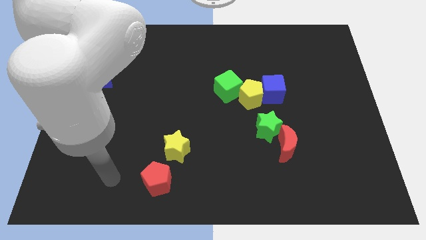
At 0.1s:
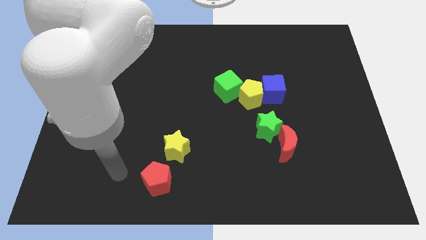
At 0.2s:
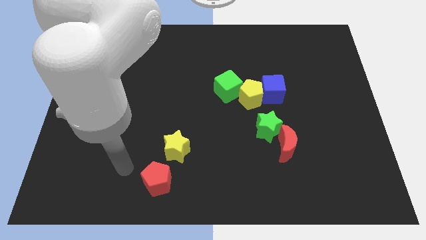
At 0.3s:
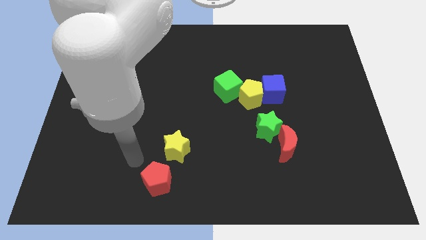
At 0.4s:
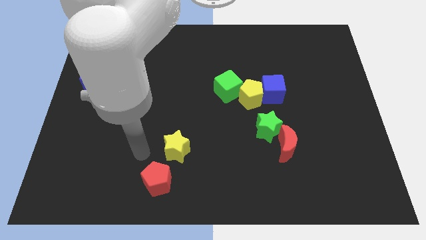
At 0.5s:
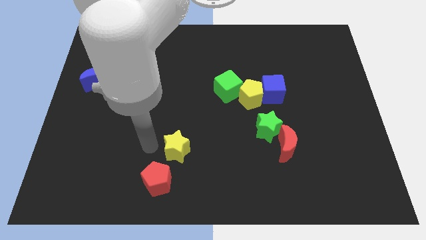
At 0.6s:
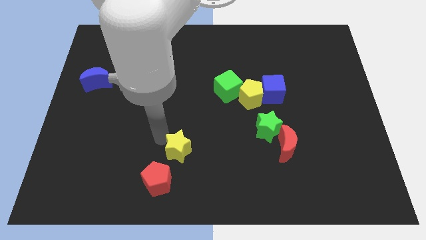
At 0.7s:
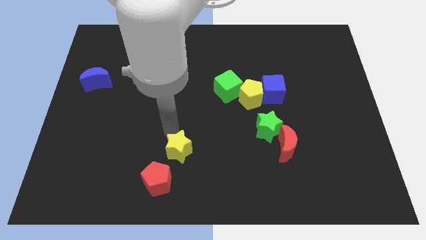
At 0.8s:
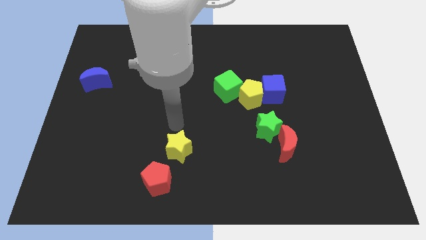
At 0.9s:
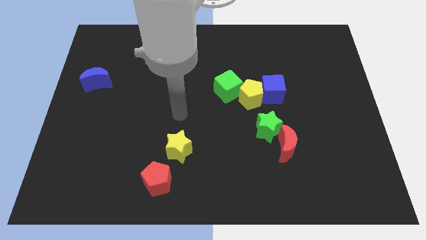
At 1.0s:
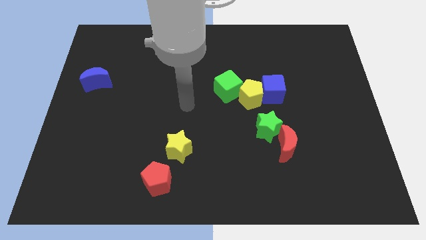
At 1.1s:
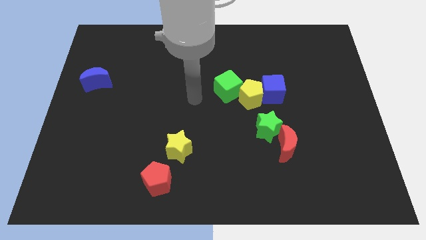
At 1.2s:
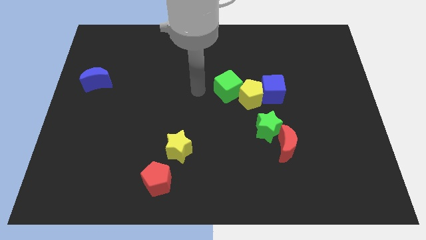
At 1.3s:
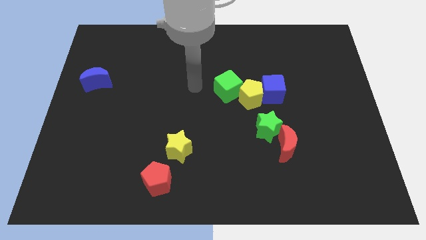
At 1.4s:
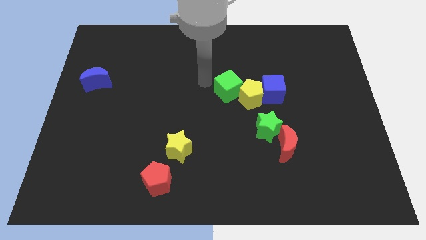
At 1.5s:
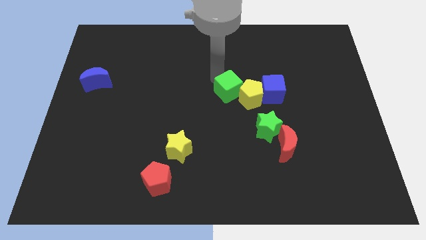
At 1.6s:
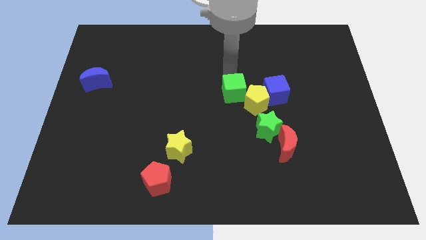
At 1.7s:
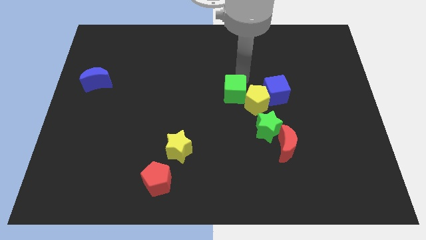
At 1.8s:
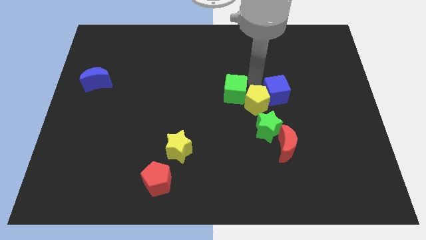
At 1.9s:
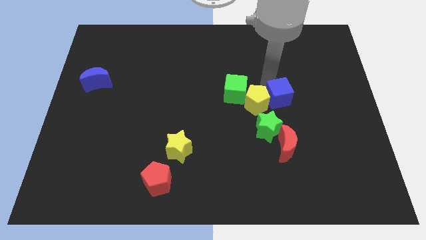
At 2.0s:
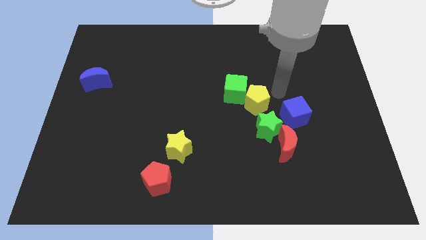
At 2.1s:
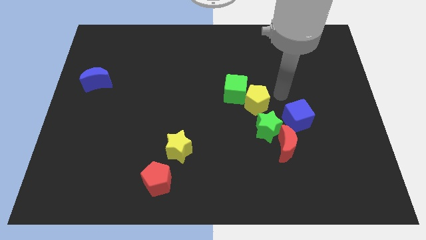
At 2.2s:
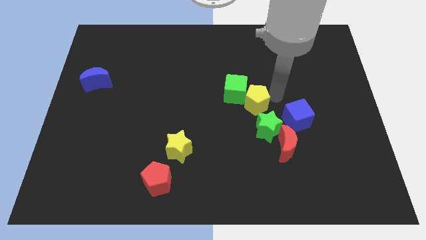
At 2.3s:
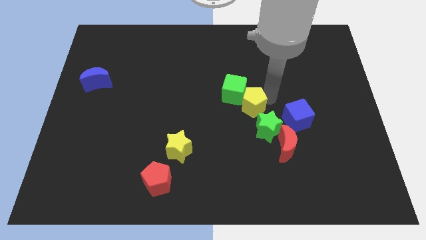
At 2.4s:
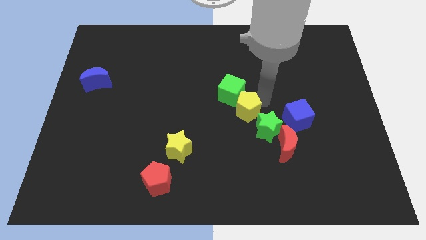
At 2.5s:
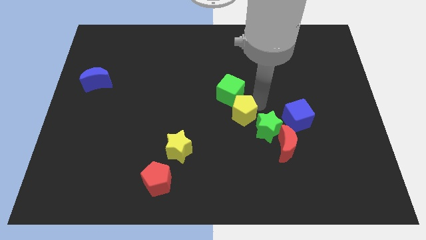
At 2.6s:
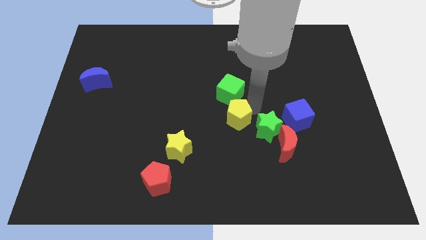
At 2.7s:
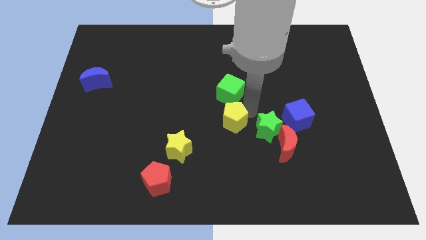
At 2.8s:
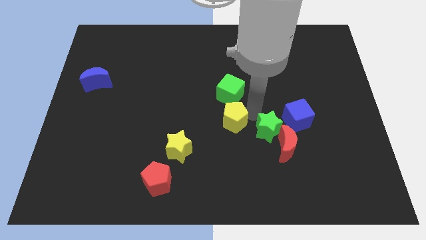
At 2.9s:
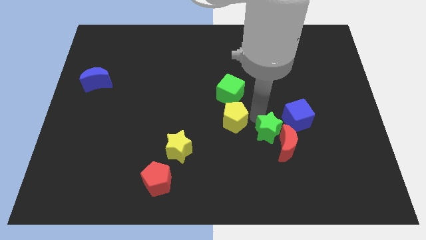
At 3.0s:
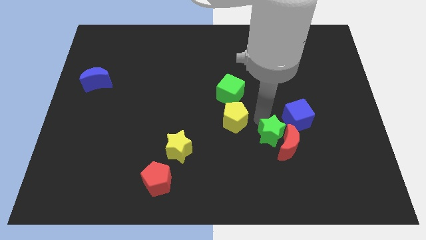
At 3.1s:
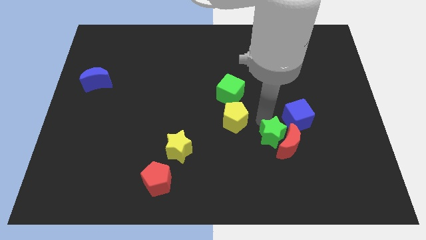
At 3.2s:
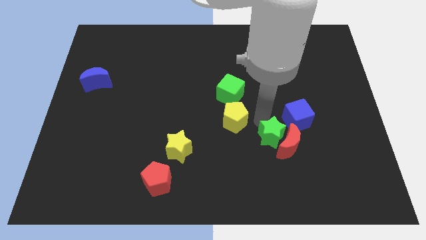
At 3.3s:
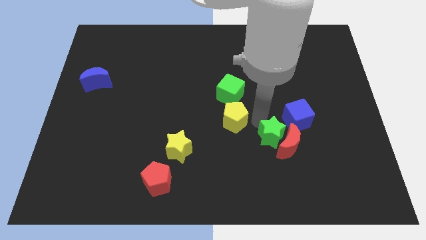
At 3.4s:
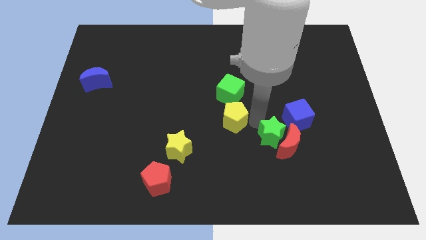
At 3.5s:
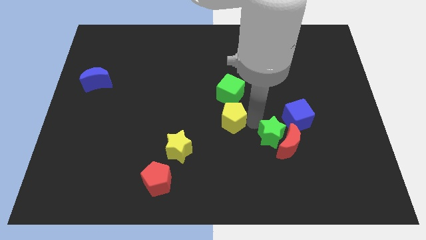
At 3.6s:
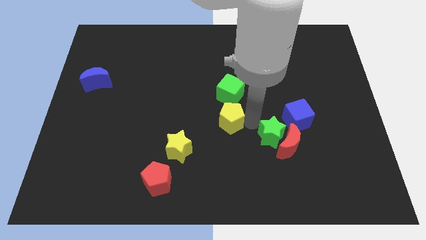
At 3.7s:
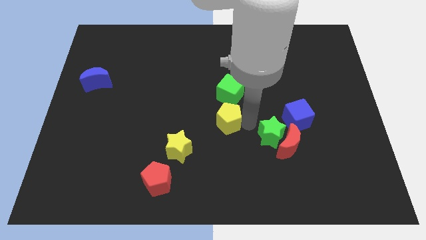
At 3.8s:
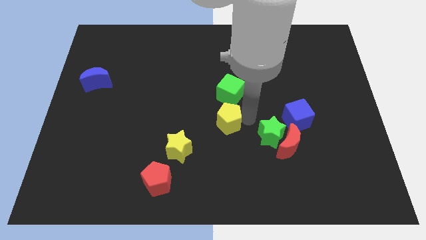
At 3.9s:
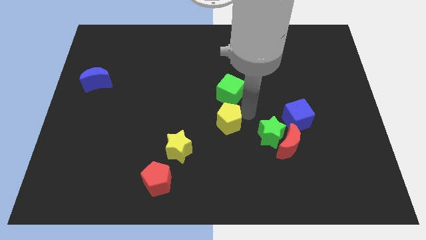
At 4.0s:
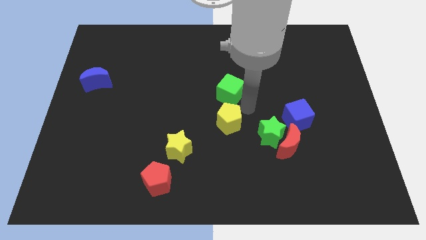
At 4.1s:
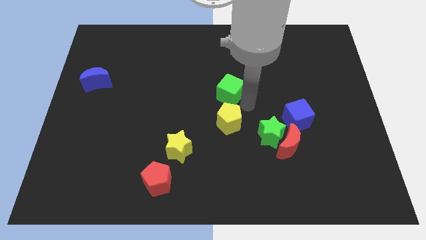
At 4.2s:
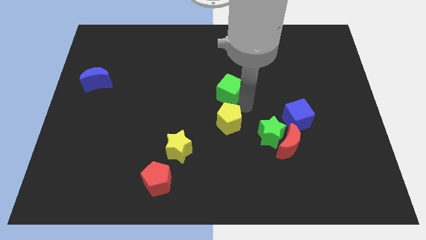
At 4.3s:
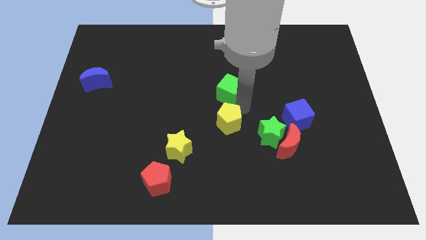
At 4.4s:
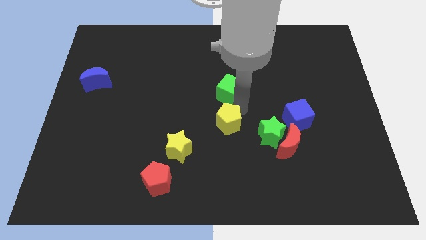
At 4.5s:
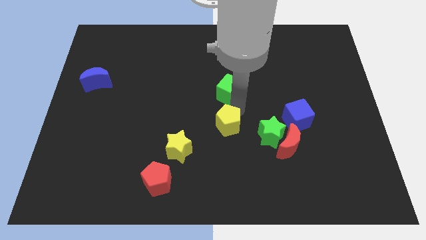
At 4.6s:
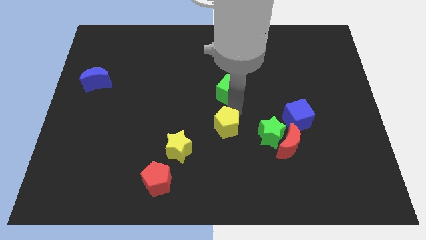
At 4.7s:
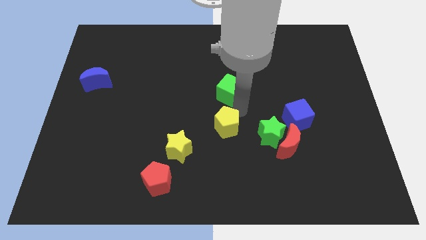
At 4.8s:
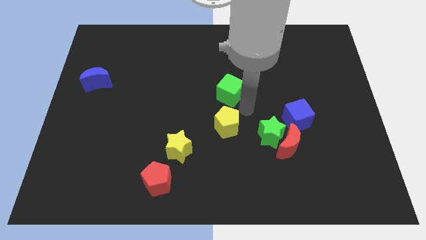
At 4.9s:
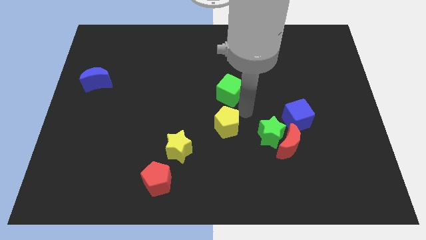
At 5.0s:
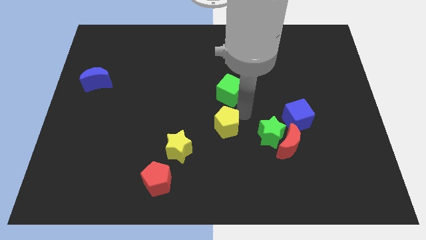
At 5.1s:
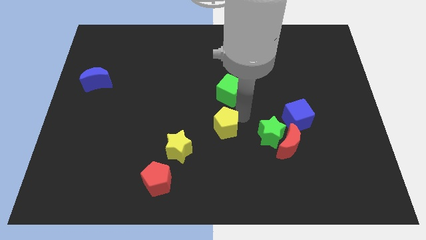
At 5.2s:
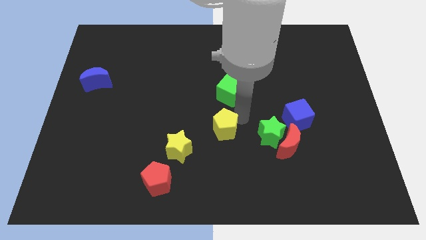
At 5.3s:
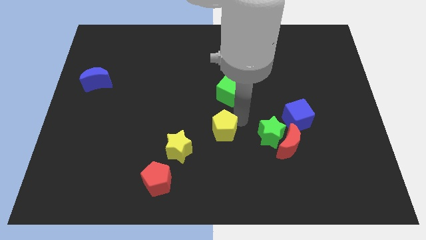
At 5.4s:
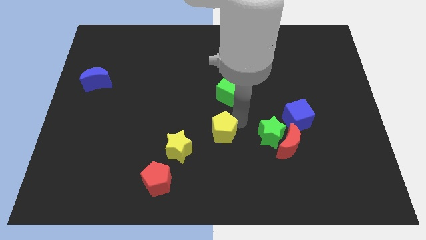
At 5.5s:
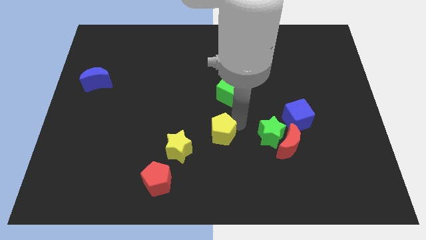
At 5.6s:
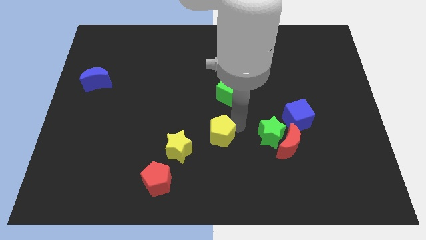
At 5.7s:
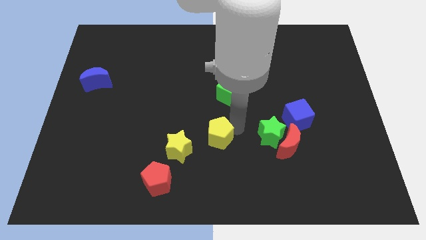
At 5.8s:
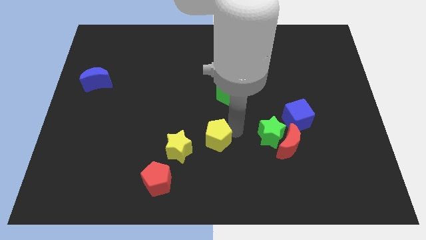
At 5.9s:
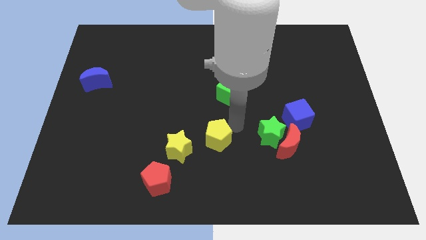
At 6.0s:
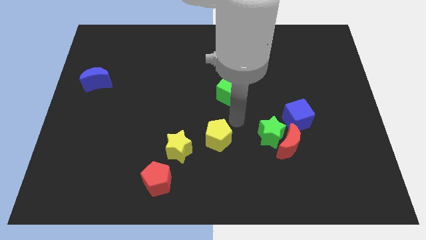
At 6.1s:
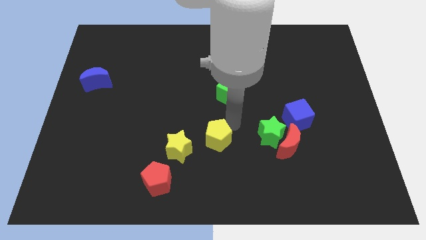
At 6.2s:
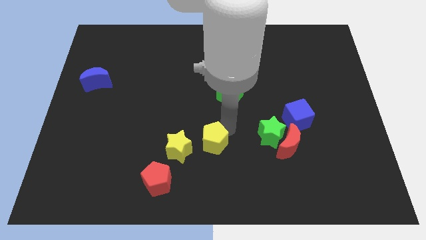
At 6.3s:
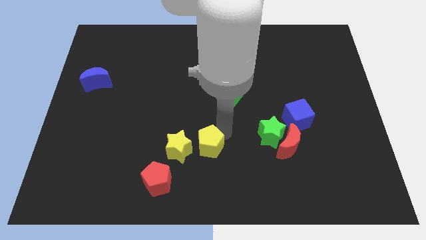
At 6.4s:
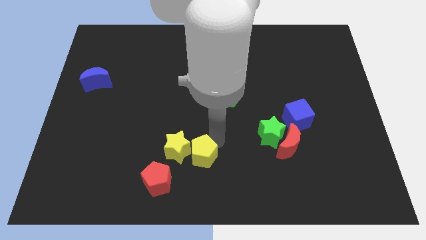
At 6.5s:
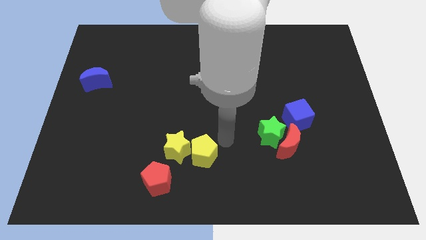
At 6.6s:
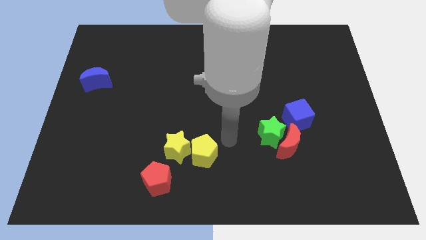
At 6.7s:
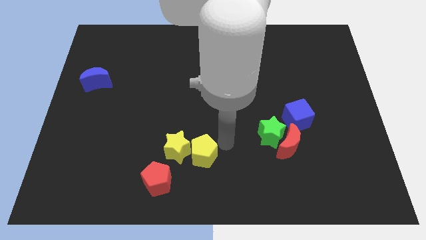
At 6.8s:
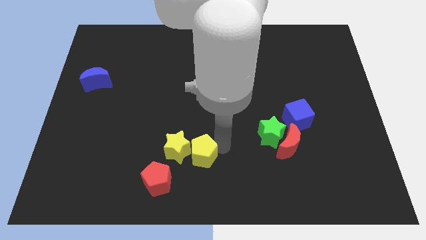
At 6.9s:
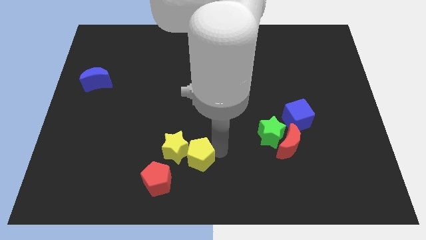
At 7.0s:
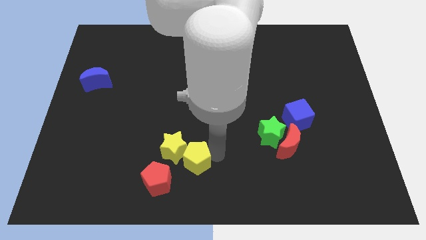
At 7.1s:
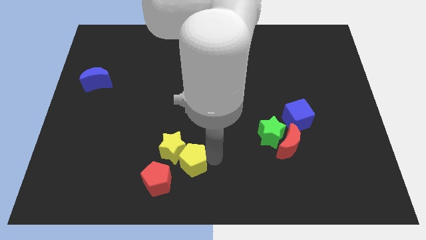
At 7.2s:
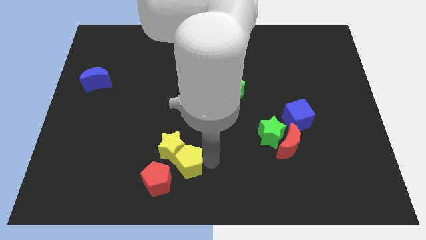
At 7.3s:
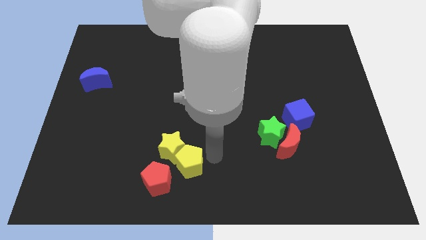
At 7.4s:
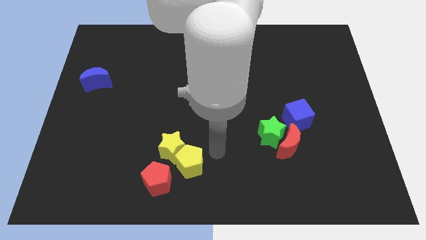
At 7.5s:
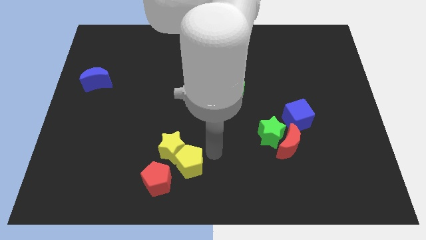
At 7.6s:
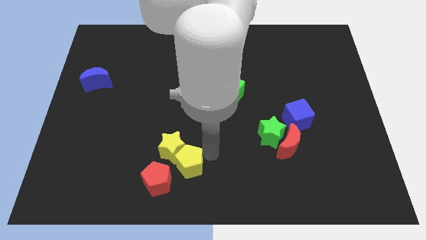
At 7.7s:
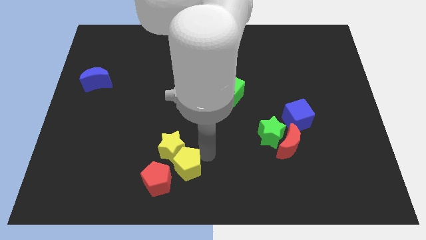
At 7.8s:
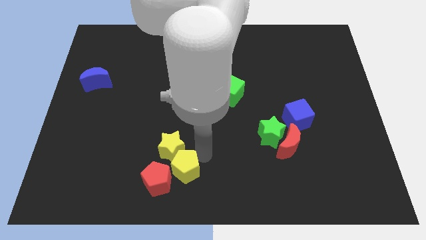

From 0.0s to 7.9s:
move the yellow pentagon next to the red pentagon
